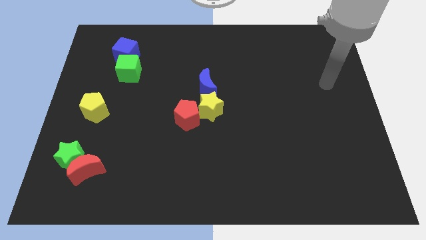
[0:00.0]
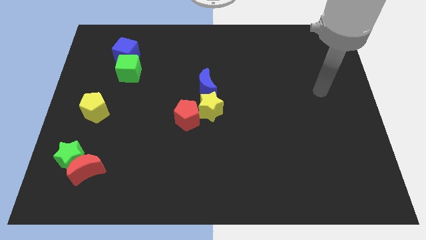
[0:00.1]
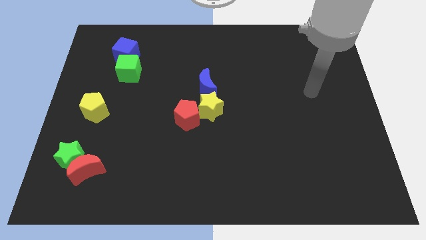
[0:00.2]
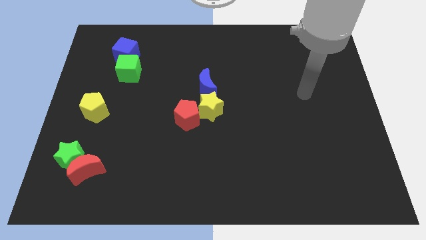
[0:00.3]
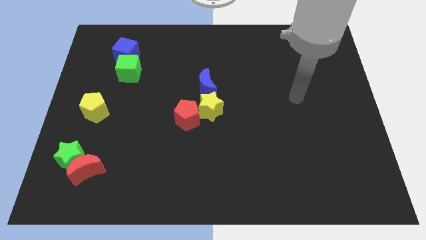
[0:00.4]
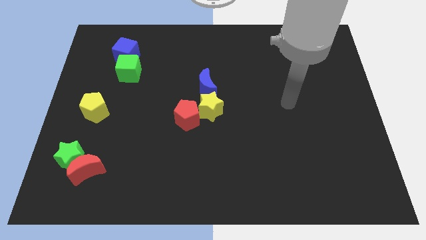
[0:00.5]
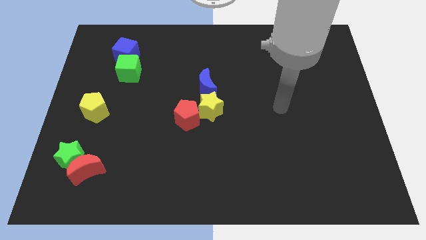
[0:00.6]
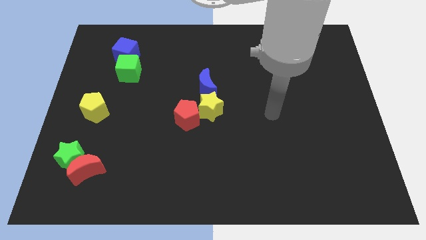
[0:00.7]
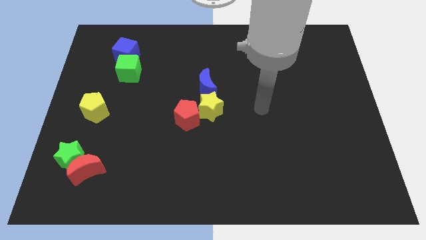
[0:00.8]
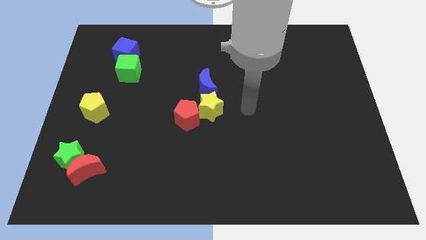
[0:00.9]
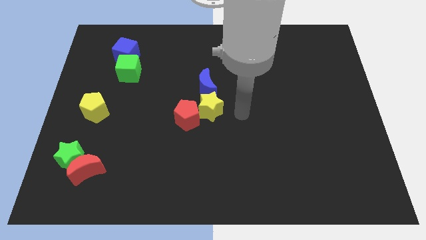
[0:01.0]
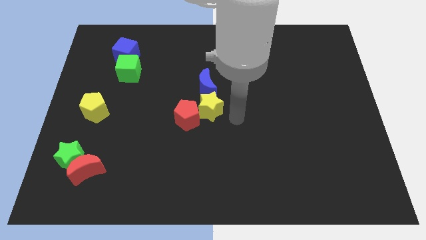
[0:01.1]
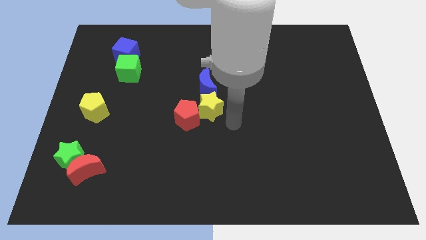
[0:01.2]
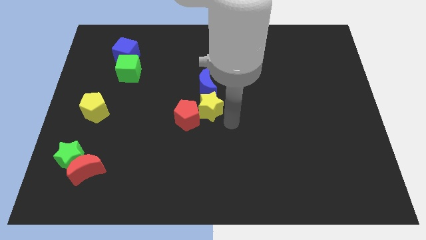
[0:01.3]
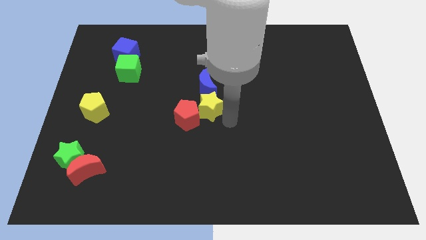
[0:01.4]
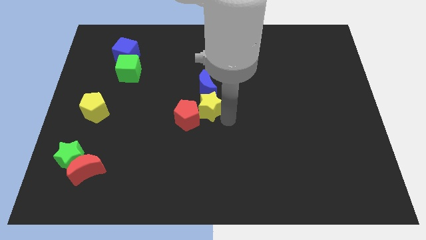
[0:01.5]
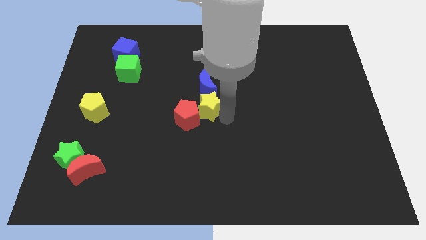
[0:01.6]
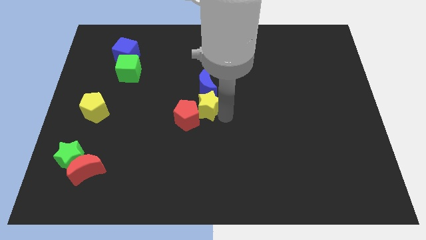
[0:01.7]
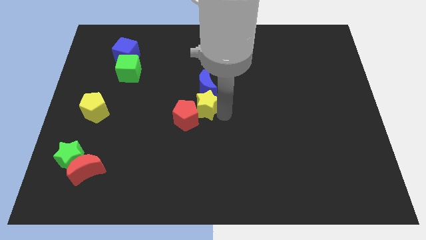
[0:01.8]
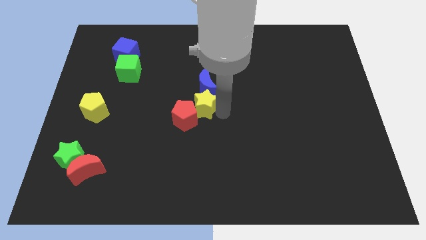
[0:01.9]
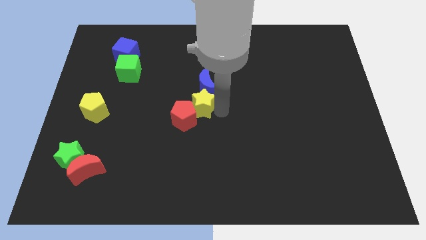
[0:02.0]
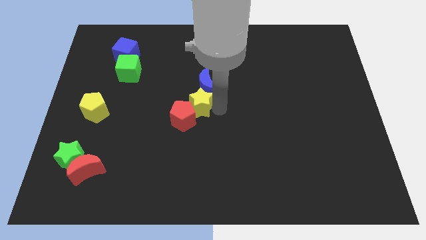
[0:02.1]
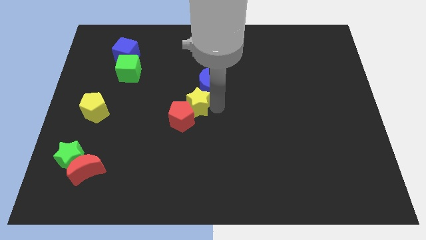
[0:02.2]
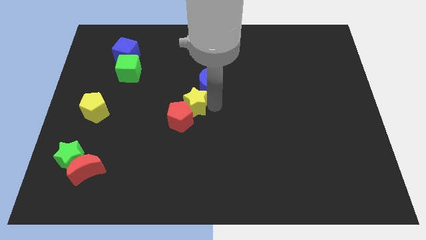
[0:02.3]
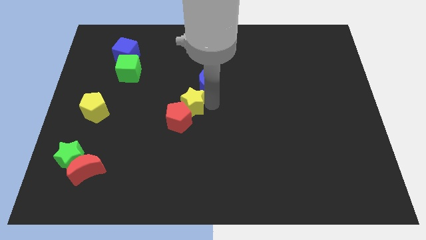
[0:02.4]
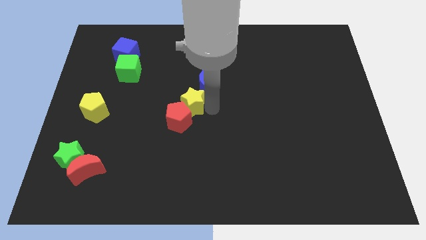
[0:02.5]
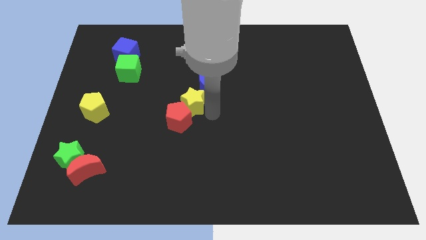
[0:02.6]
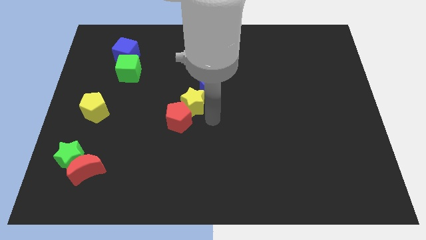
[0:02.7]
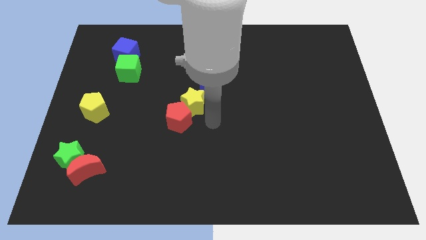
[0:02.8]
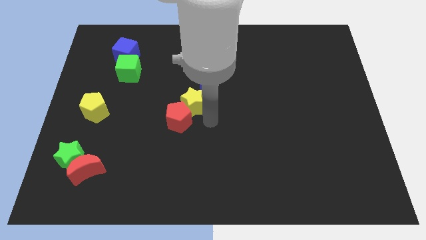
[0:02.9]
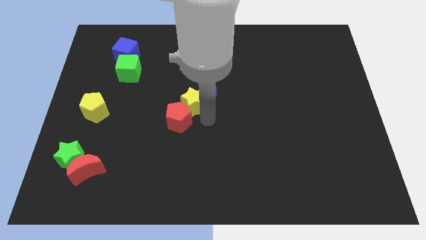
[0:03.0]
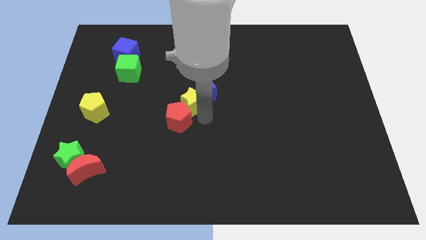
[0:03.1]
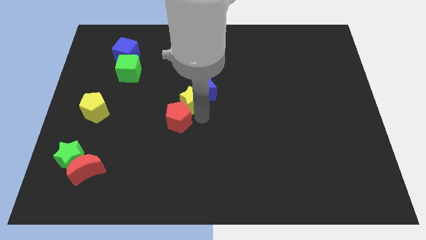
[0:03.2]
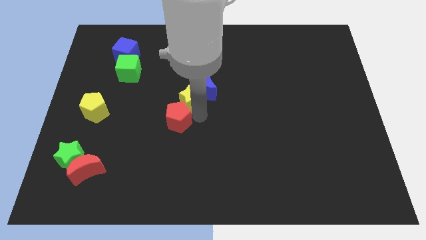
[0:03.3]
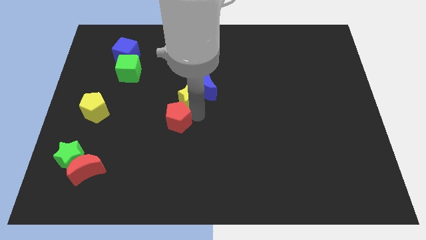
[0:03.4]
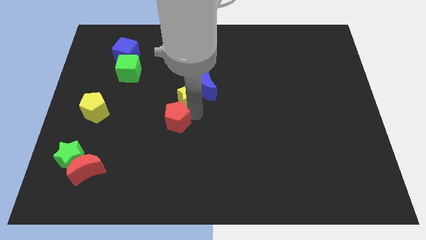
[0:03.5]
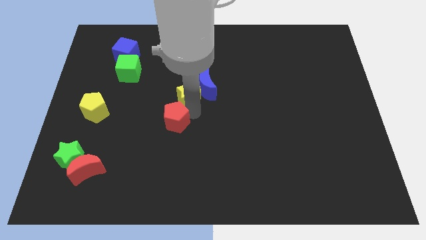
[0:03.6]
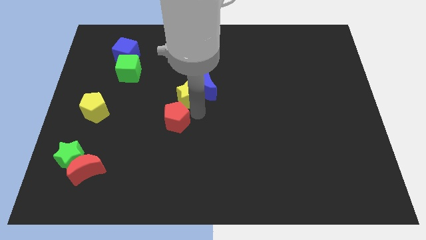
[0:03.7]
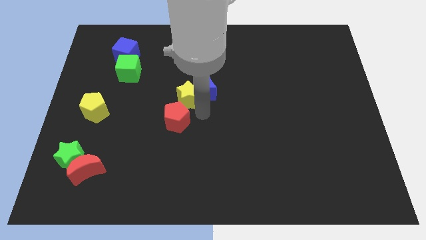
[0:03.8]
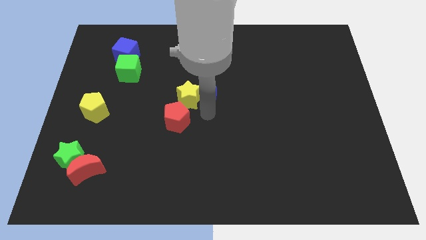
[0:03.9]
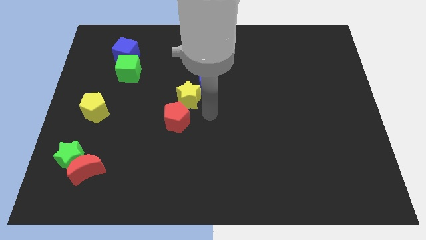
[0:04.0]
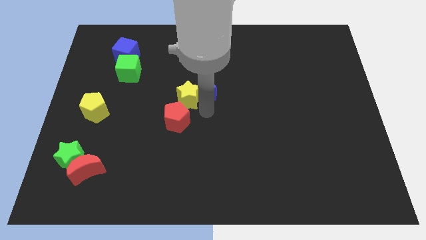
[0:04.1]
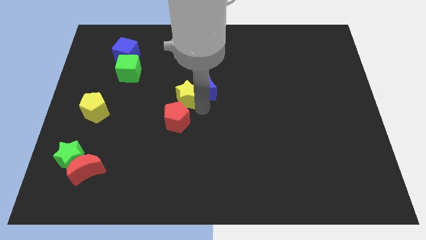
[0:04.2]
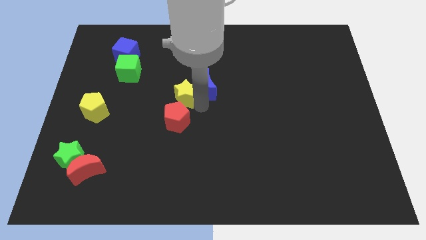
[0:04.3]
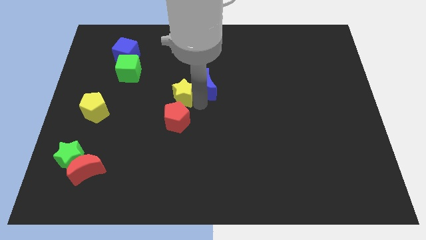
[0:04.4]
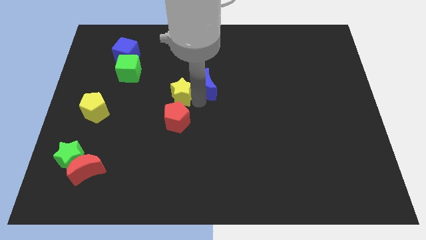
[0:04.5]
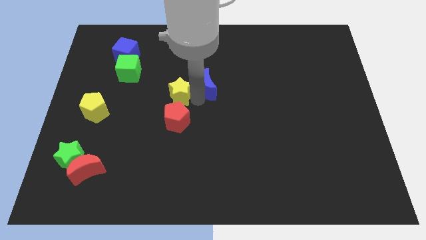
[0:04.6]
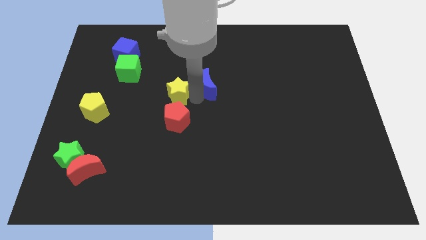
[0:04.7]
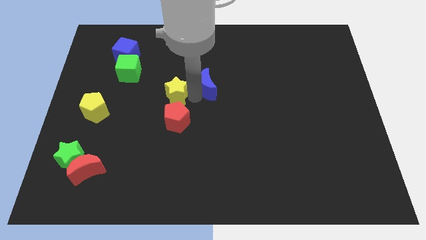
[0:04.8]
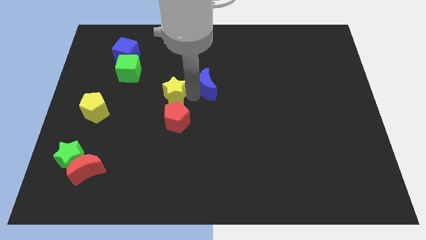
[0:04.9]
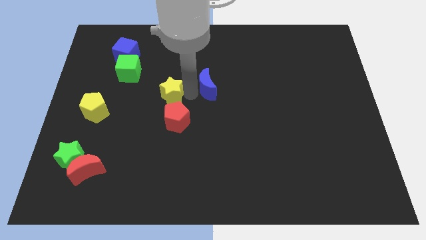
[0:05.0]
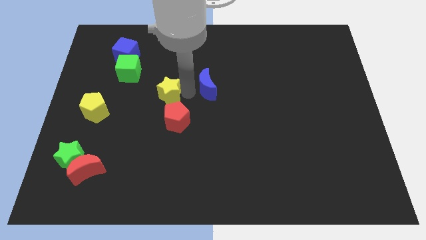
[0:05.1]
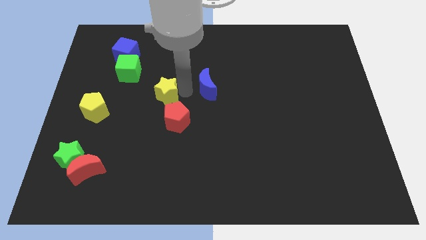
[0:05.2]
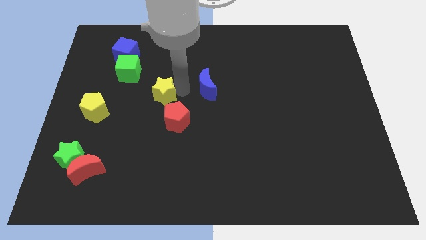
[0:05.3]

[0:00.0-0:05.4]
slide the yellow star to the bottom right of the green cube

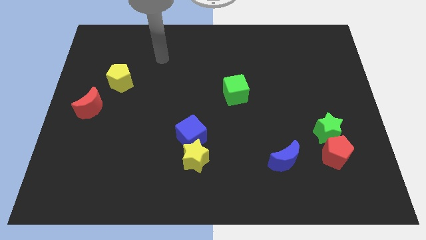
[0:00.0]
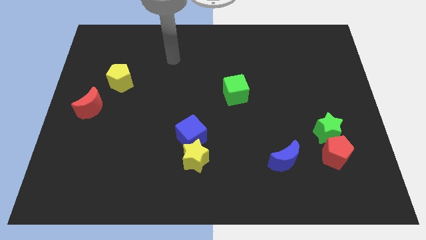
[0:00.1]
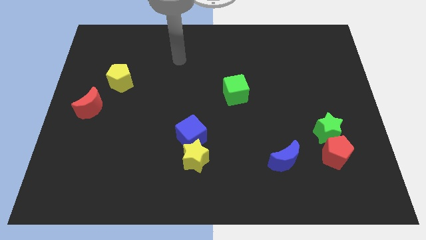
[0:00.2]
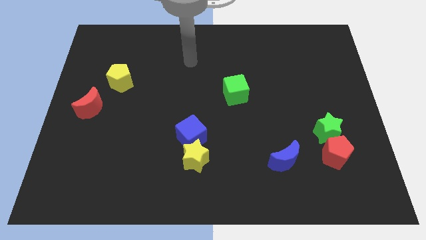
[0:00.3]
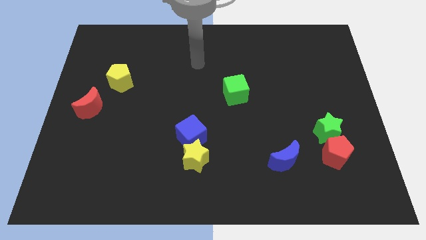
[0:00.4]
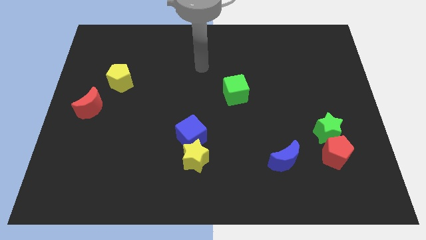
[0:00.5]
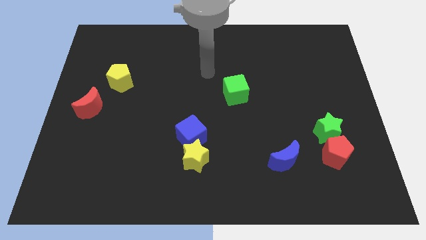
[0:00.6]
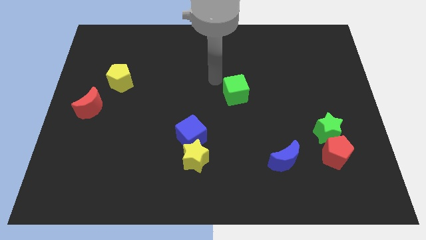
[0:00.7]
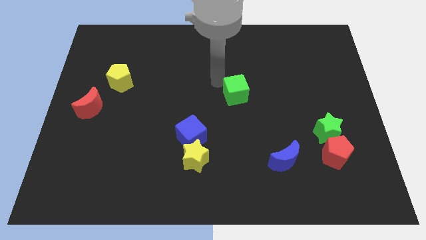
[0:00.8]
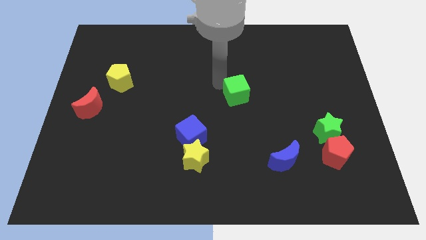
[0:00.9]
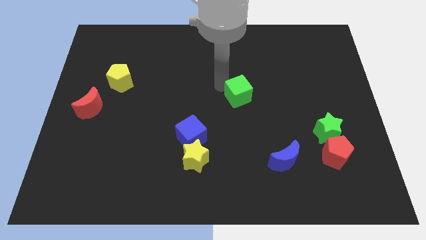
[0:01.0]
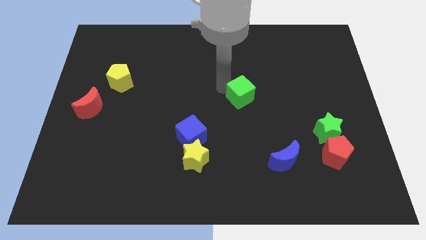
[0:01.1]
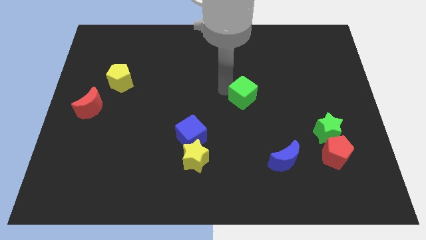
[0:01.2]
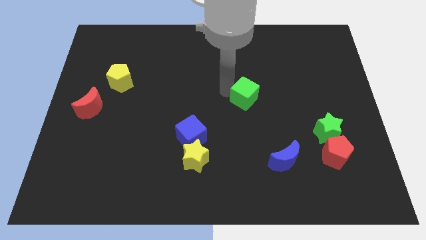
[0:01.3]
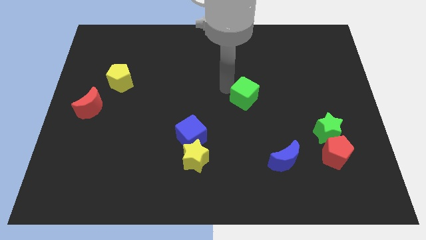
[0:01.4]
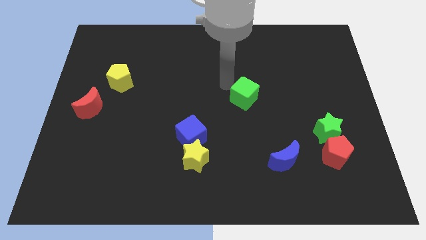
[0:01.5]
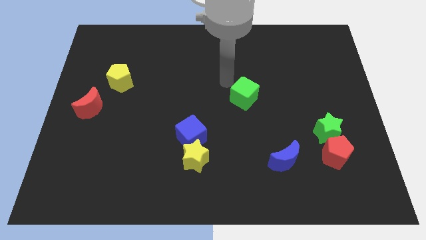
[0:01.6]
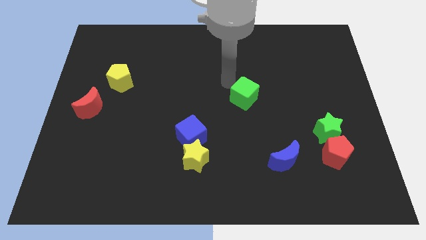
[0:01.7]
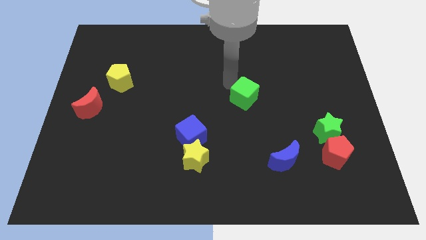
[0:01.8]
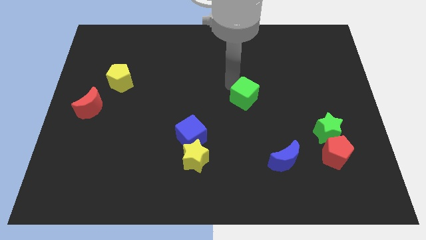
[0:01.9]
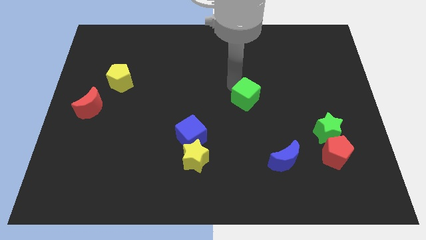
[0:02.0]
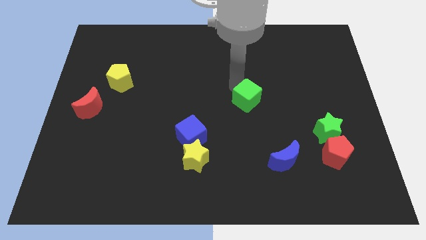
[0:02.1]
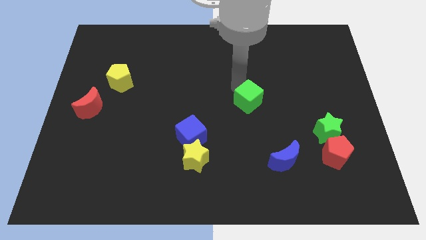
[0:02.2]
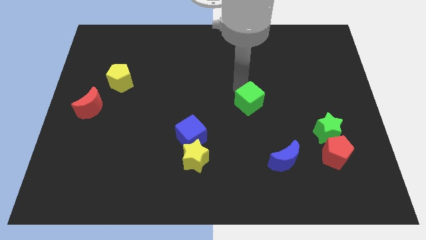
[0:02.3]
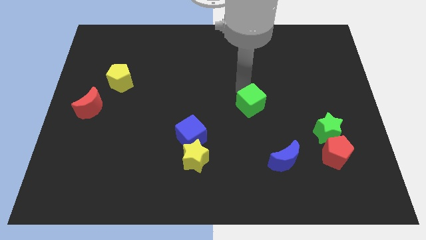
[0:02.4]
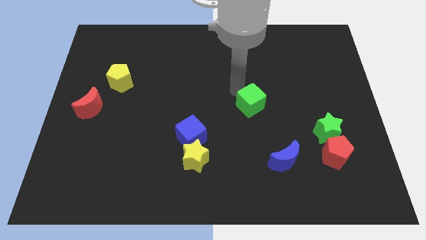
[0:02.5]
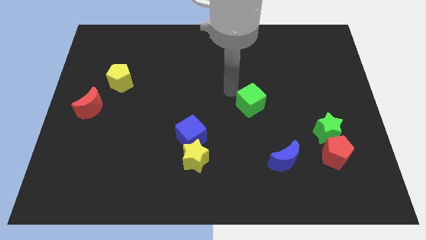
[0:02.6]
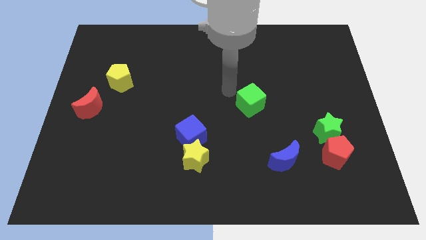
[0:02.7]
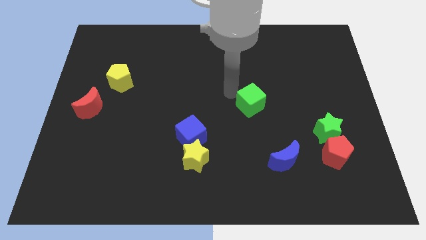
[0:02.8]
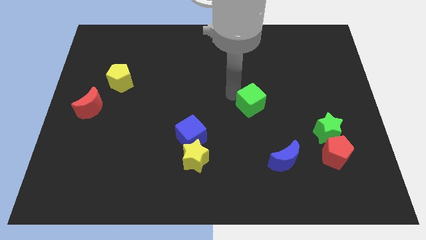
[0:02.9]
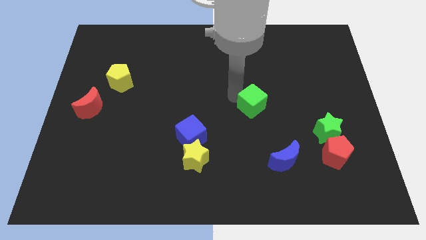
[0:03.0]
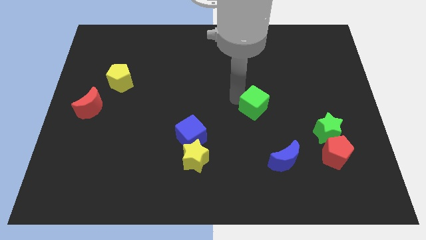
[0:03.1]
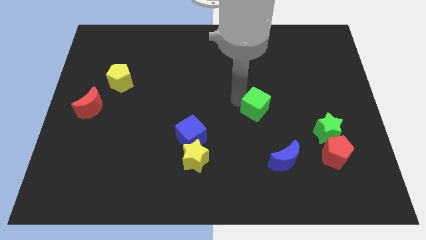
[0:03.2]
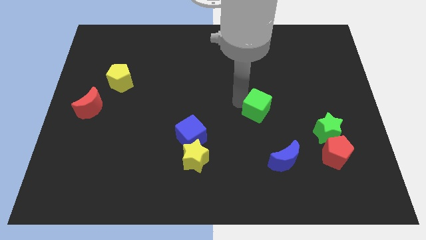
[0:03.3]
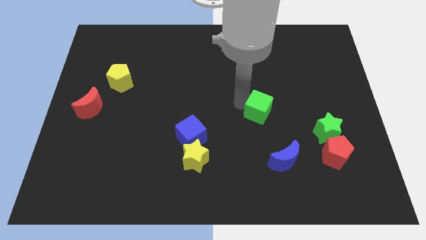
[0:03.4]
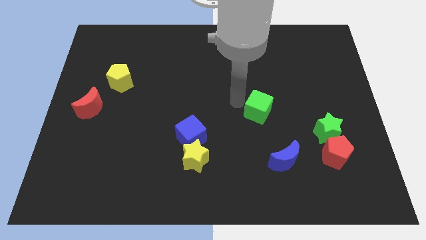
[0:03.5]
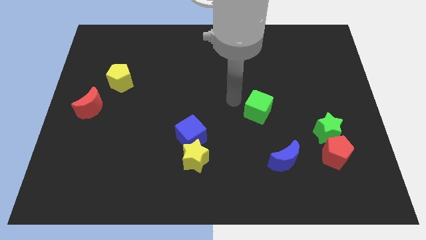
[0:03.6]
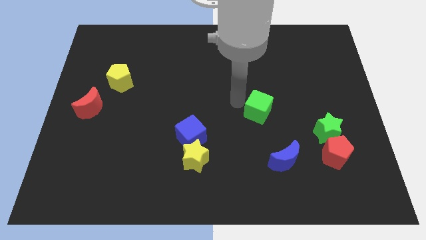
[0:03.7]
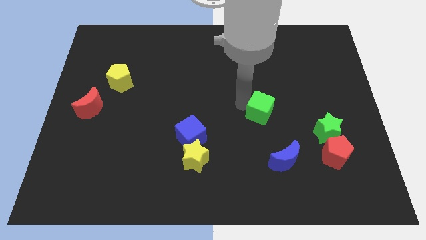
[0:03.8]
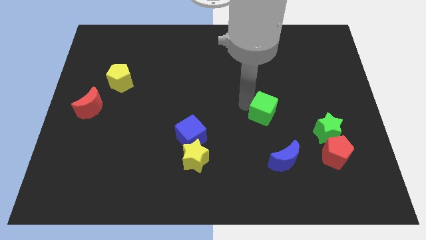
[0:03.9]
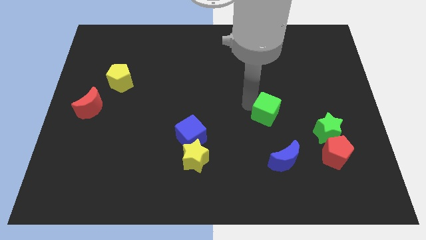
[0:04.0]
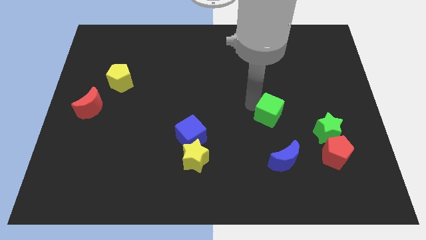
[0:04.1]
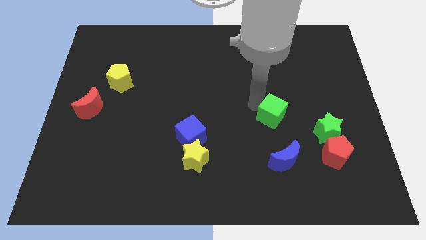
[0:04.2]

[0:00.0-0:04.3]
slide the green cube to the left side of the green star
